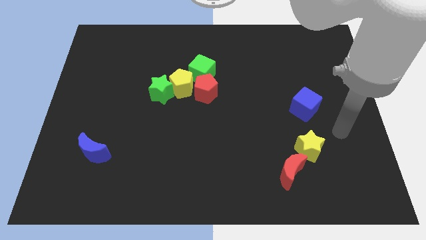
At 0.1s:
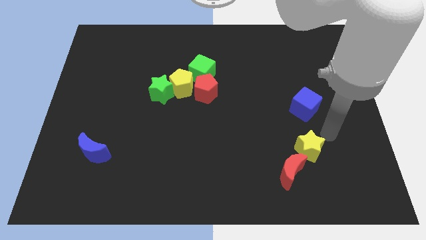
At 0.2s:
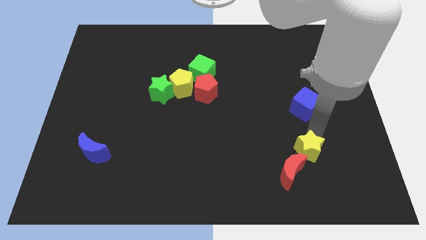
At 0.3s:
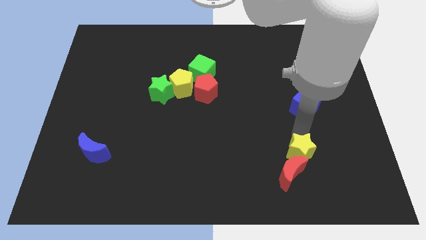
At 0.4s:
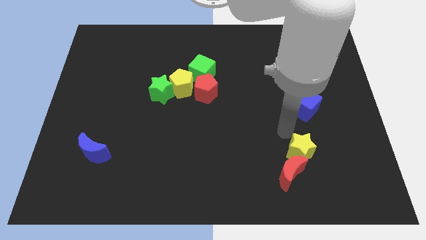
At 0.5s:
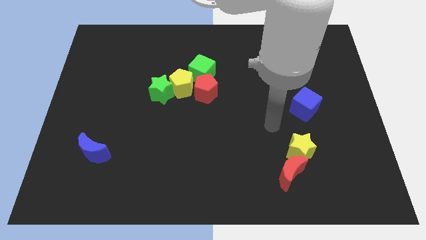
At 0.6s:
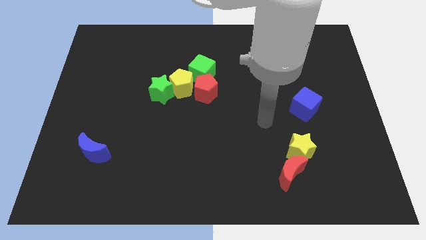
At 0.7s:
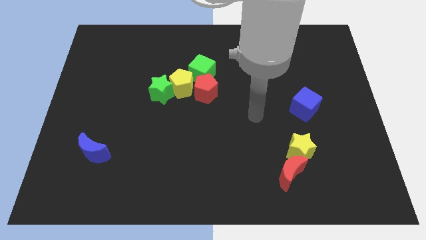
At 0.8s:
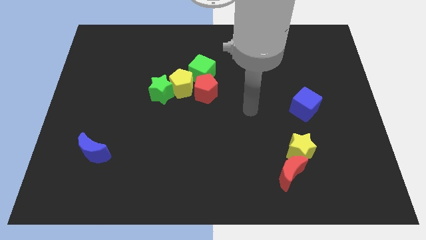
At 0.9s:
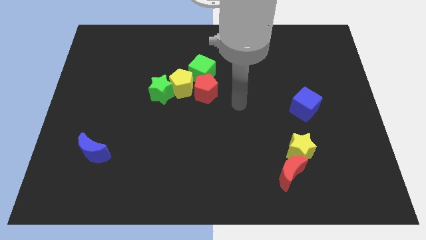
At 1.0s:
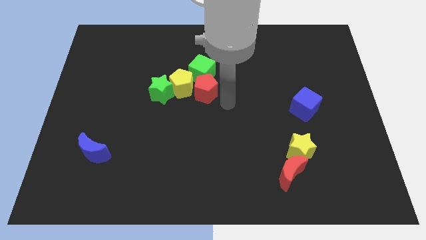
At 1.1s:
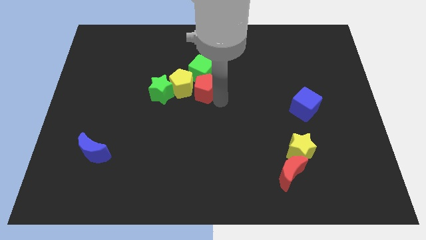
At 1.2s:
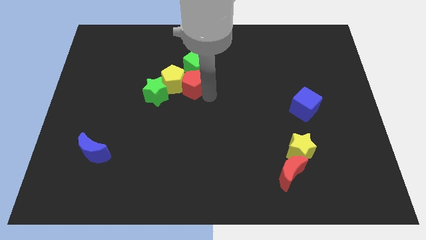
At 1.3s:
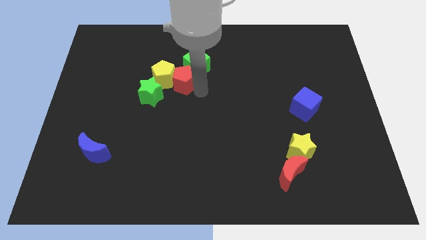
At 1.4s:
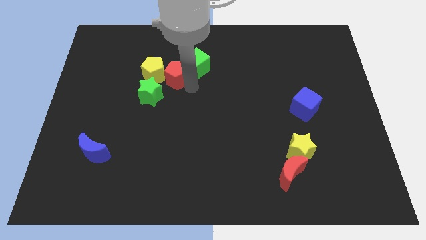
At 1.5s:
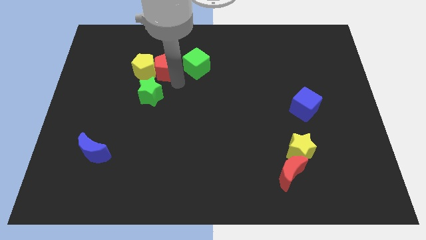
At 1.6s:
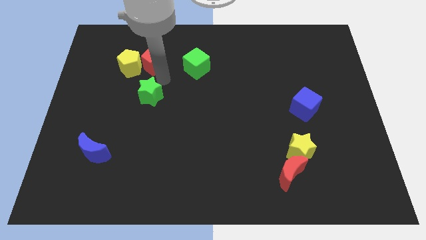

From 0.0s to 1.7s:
move the green star away from the yellow pentagon

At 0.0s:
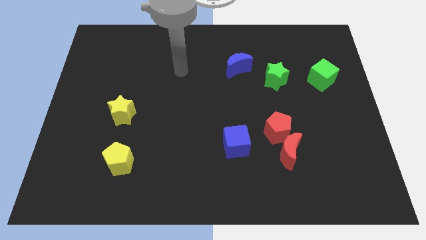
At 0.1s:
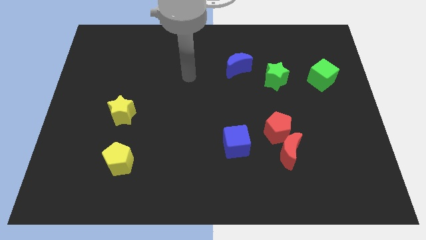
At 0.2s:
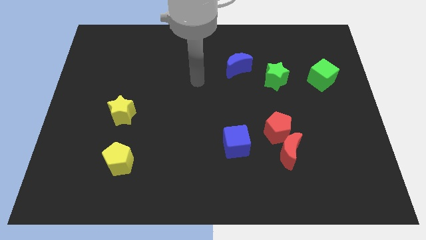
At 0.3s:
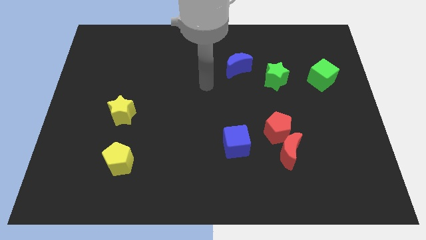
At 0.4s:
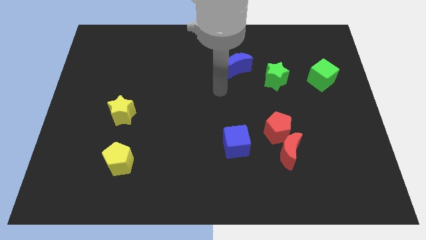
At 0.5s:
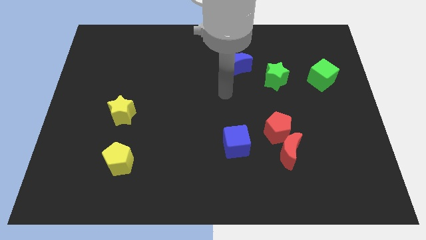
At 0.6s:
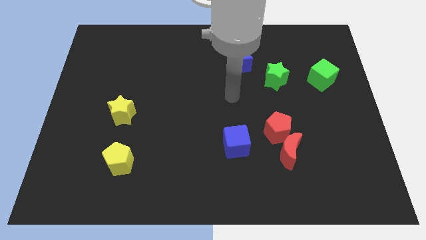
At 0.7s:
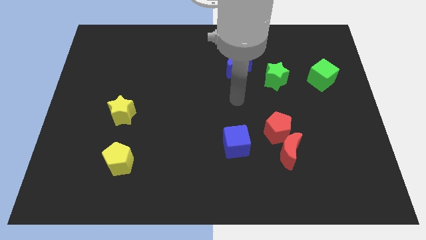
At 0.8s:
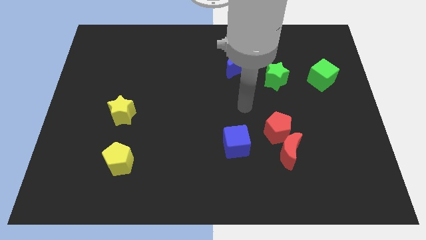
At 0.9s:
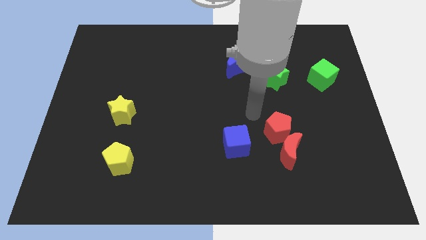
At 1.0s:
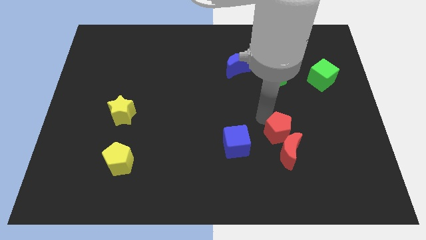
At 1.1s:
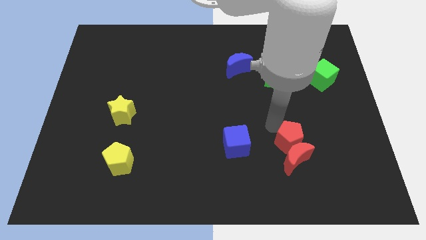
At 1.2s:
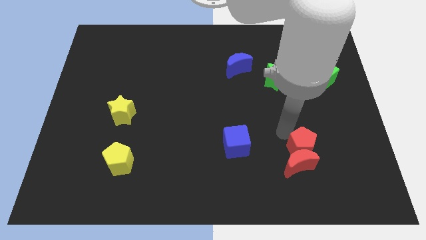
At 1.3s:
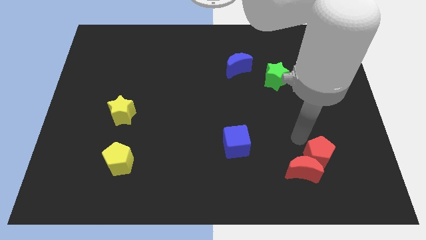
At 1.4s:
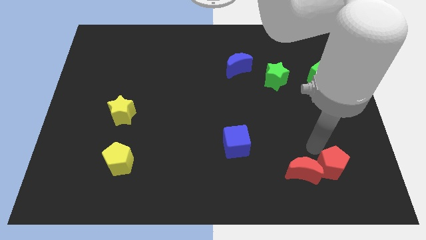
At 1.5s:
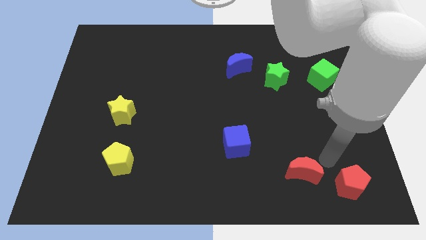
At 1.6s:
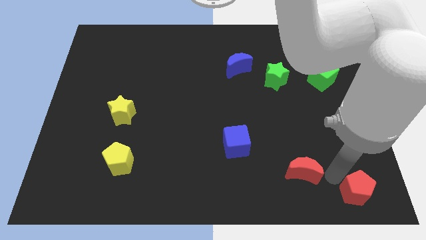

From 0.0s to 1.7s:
pull the red moon apart from the red pentagon

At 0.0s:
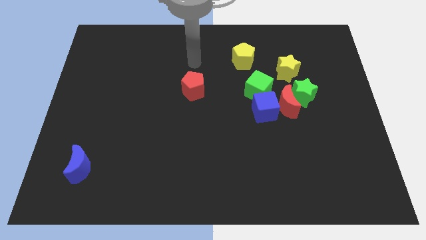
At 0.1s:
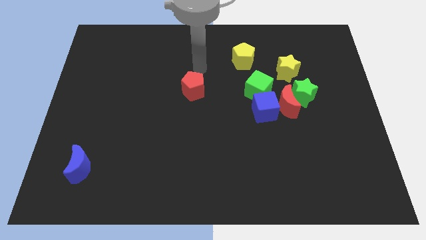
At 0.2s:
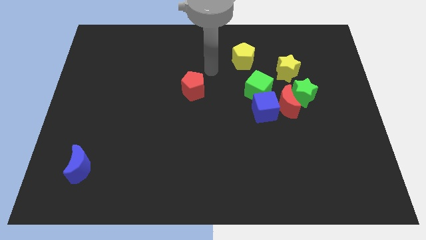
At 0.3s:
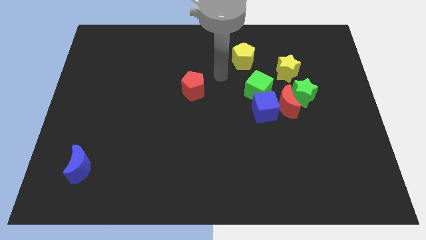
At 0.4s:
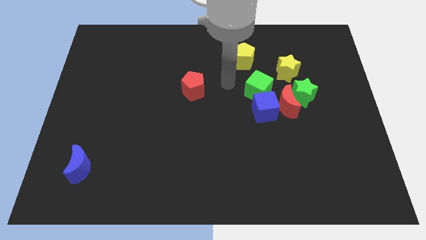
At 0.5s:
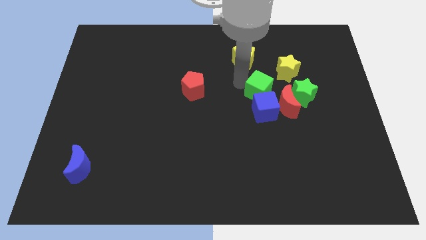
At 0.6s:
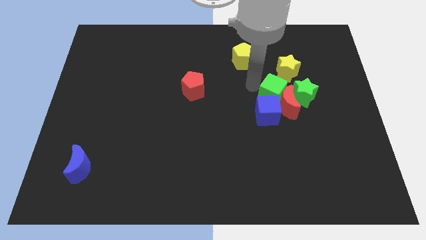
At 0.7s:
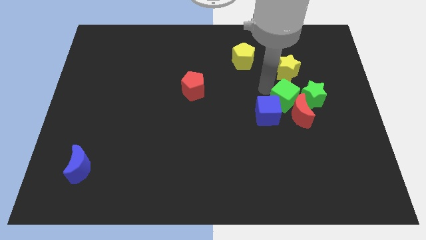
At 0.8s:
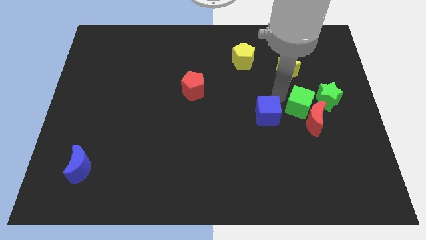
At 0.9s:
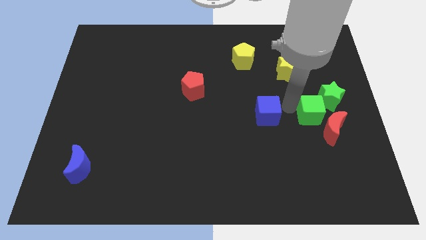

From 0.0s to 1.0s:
move the blue cube away from the red moon and green cube

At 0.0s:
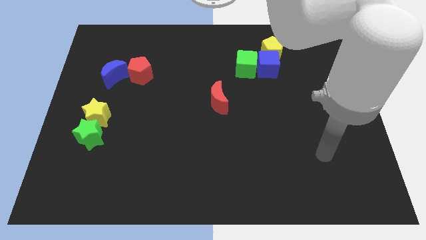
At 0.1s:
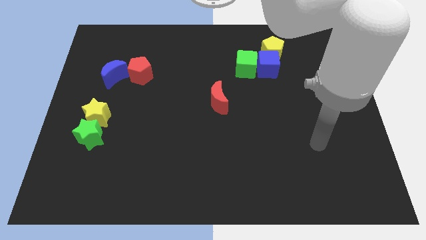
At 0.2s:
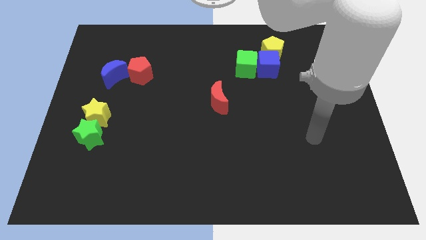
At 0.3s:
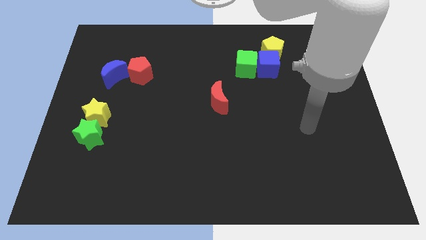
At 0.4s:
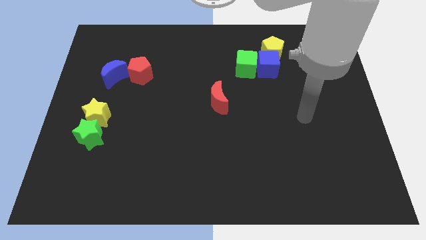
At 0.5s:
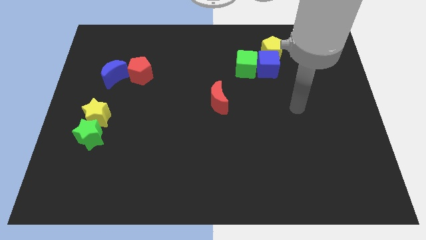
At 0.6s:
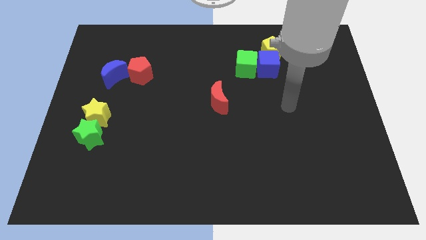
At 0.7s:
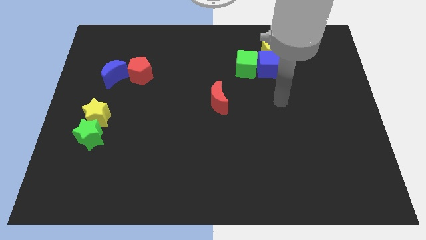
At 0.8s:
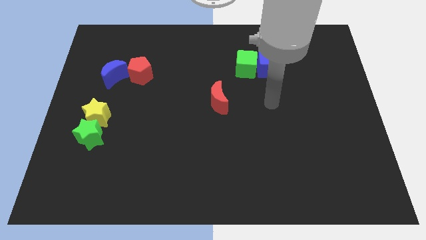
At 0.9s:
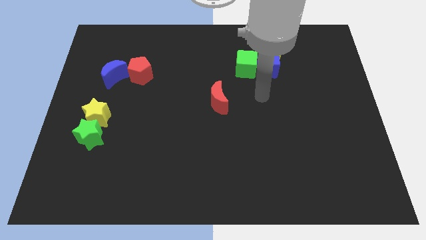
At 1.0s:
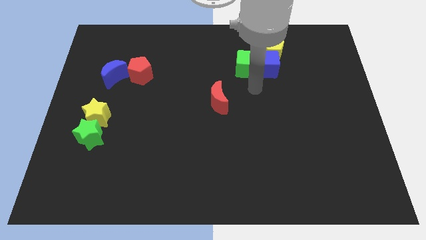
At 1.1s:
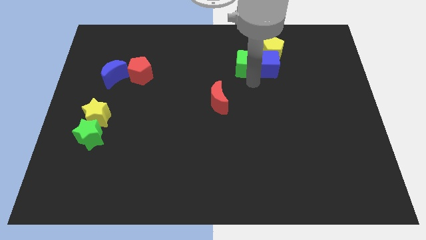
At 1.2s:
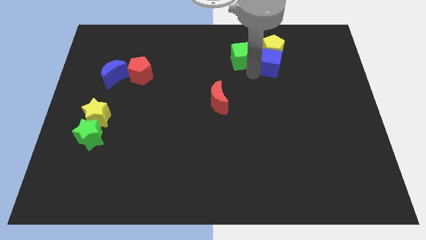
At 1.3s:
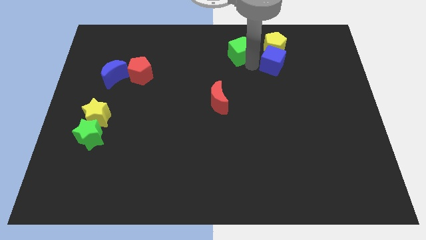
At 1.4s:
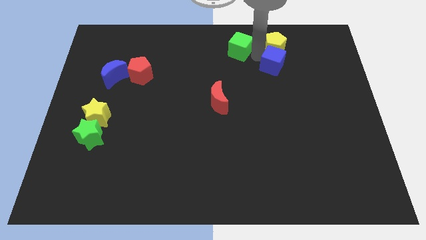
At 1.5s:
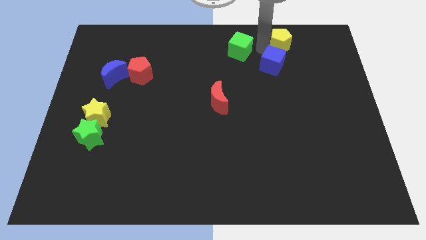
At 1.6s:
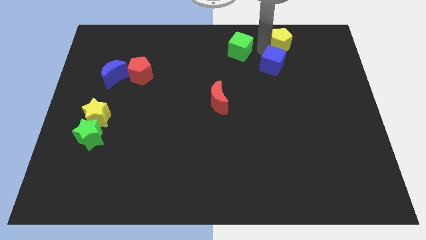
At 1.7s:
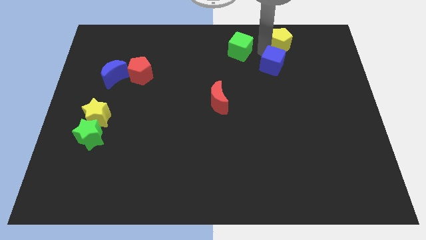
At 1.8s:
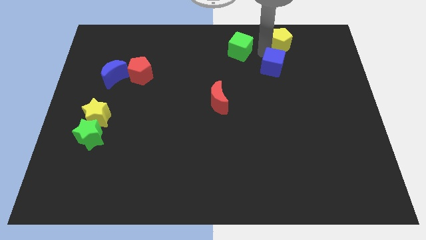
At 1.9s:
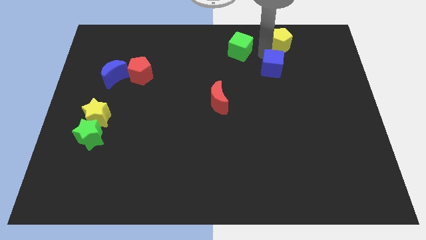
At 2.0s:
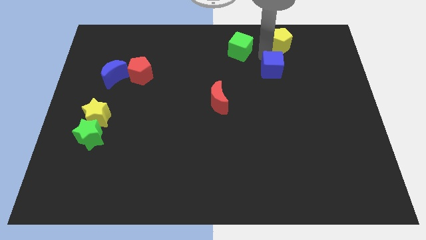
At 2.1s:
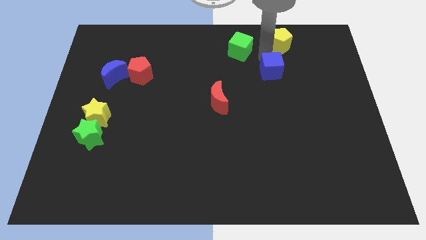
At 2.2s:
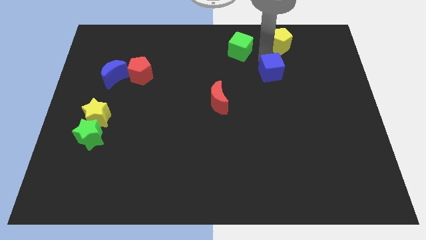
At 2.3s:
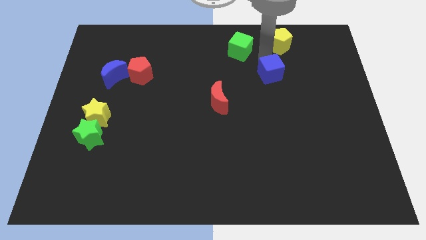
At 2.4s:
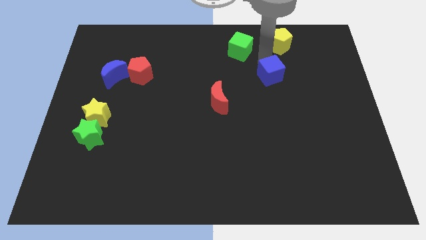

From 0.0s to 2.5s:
move the blue cube away from the yellow pentagon and green cube

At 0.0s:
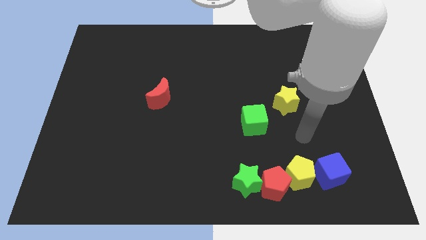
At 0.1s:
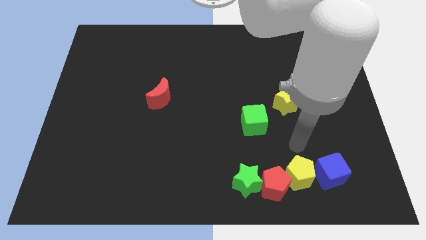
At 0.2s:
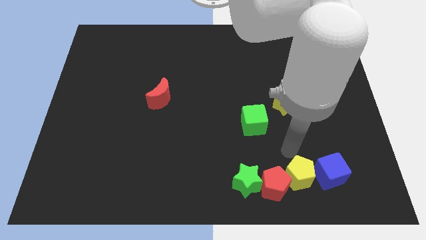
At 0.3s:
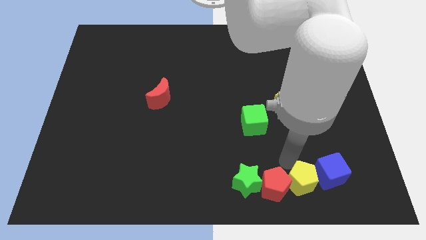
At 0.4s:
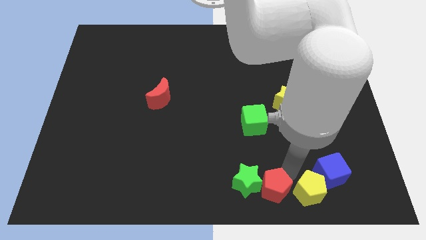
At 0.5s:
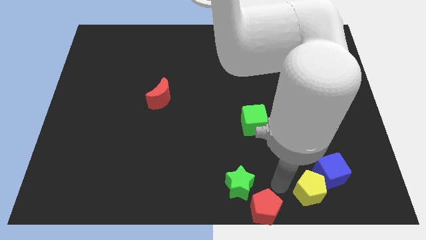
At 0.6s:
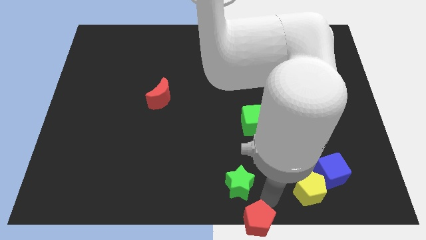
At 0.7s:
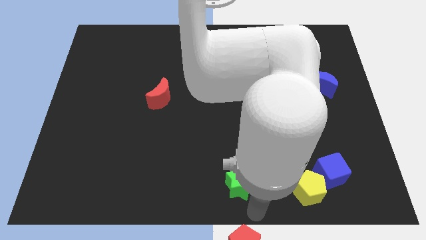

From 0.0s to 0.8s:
pull the green star apart from the red pentagon

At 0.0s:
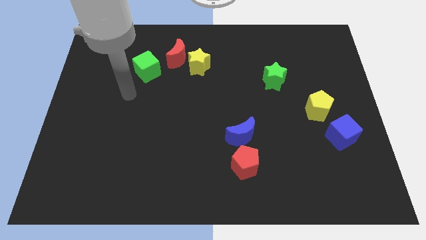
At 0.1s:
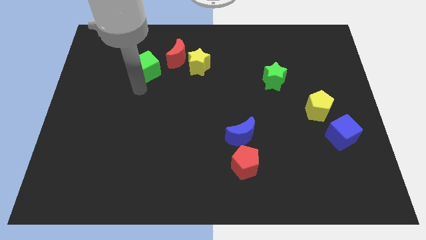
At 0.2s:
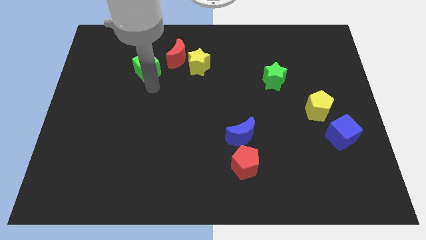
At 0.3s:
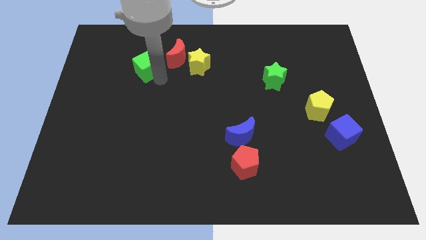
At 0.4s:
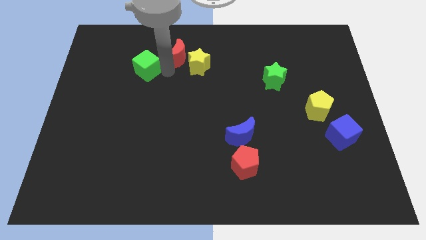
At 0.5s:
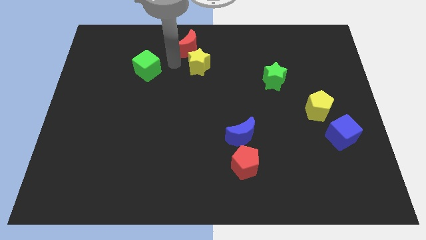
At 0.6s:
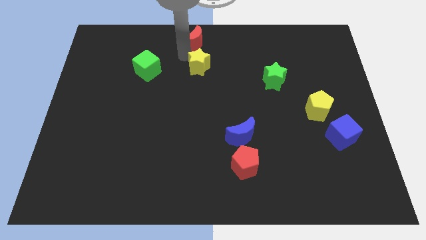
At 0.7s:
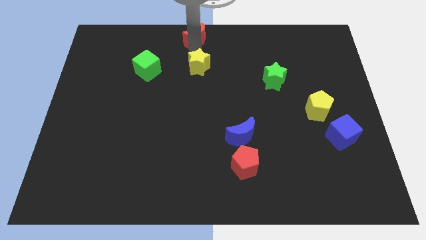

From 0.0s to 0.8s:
pull the yellow star apart from the red moon

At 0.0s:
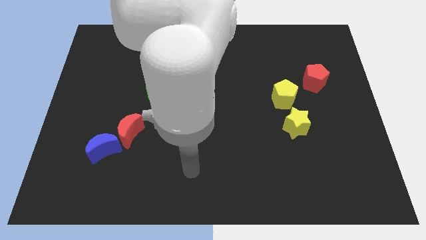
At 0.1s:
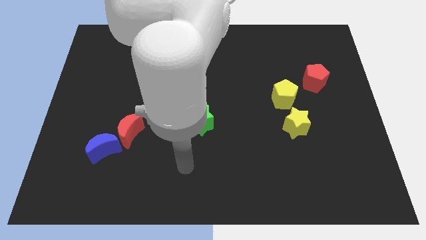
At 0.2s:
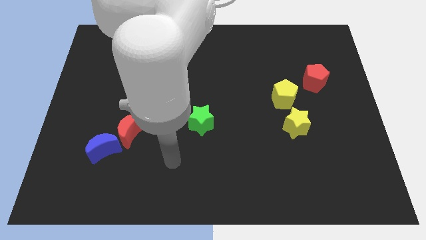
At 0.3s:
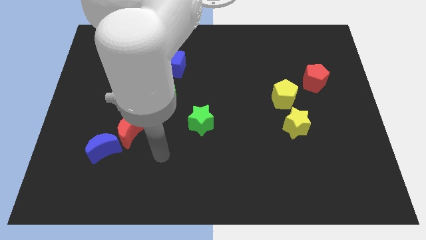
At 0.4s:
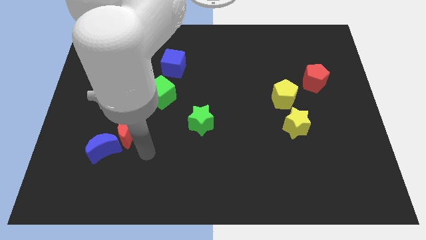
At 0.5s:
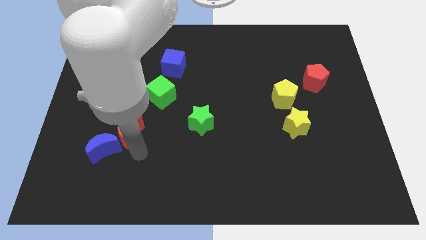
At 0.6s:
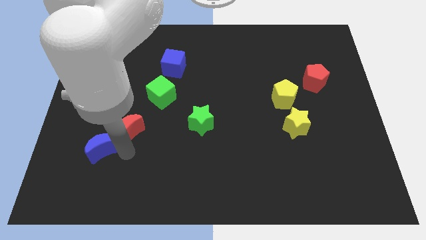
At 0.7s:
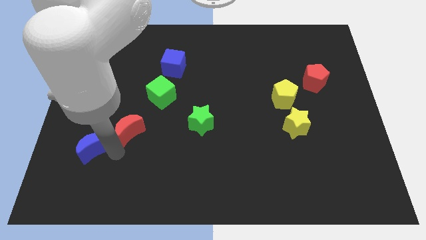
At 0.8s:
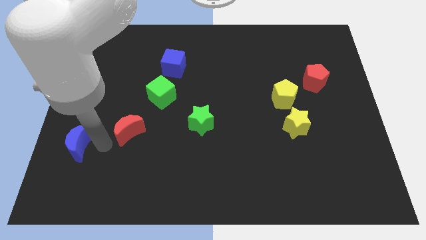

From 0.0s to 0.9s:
pull the red moon apart from the blue moon
